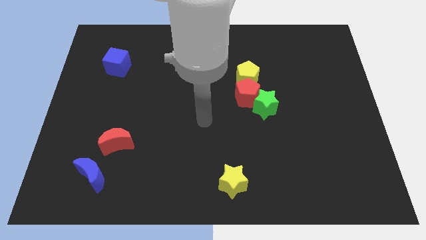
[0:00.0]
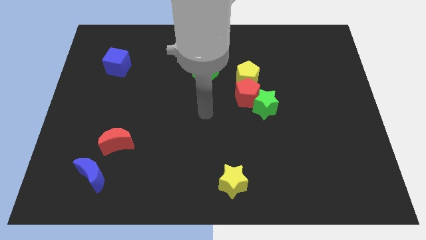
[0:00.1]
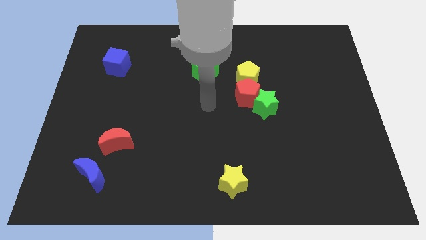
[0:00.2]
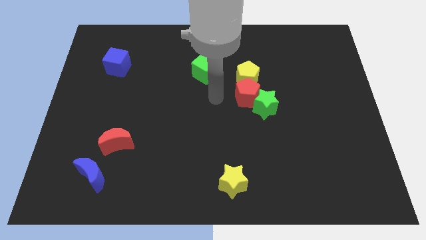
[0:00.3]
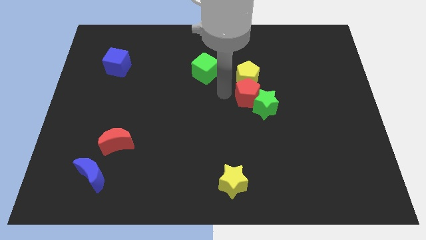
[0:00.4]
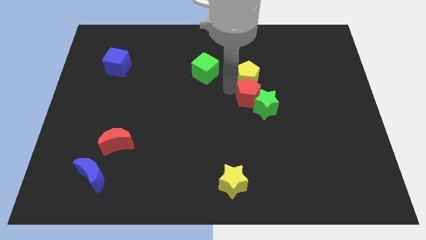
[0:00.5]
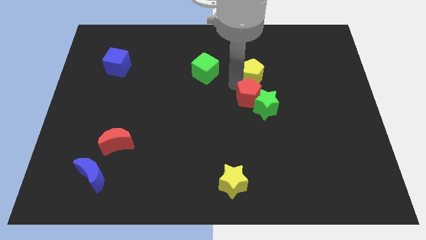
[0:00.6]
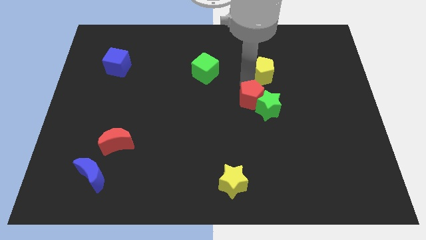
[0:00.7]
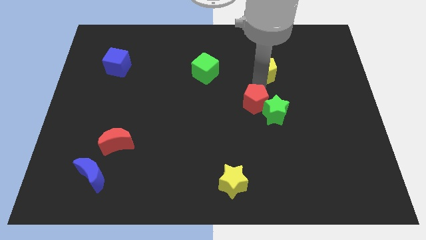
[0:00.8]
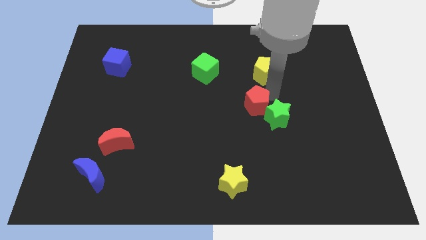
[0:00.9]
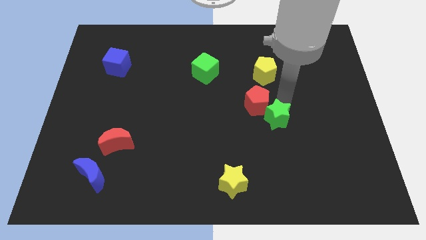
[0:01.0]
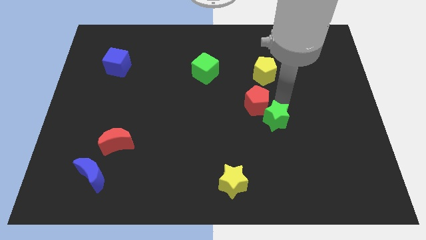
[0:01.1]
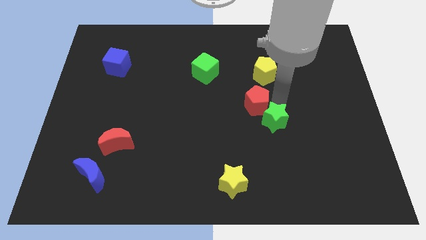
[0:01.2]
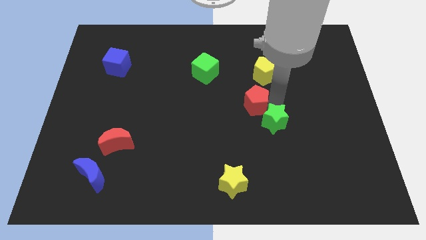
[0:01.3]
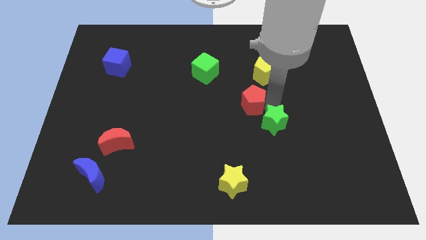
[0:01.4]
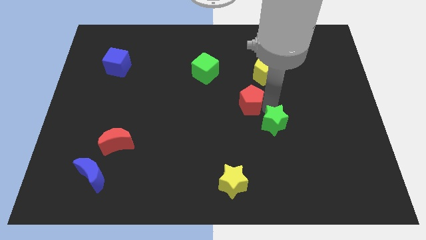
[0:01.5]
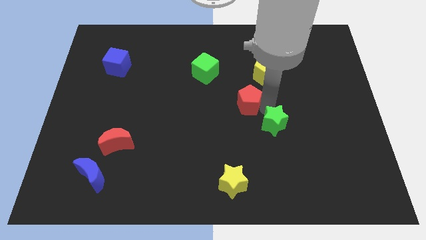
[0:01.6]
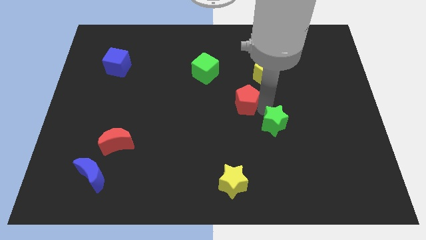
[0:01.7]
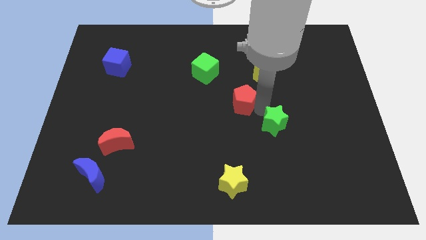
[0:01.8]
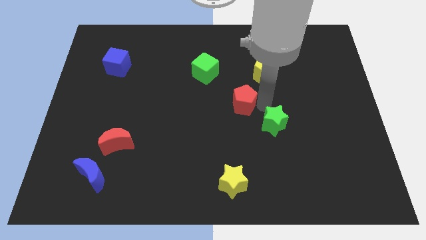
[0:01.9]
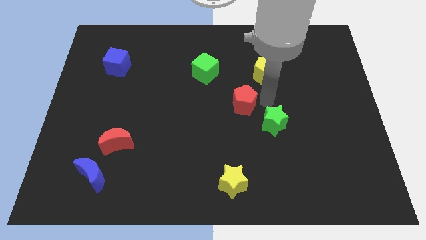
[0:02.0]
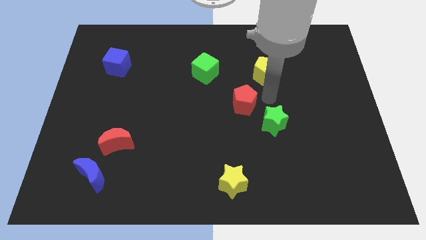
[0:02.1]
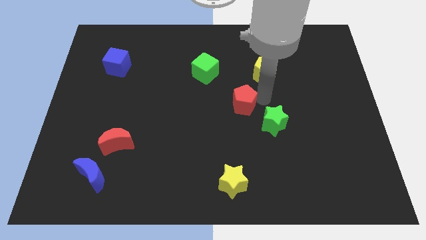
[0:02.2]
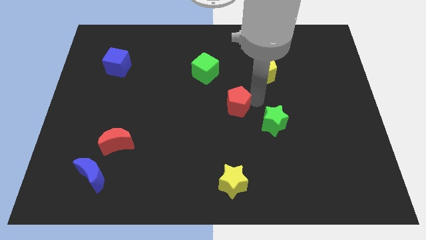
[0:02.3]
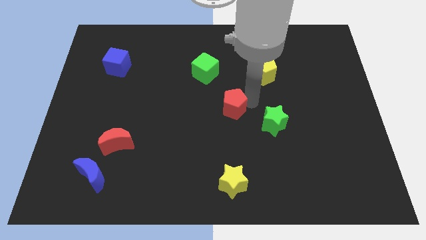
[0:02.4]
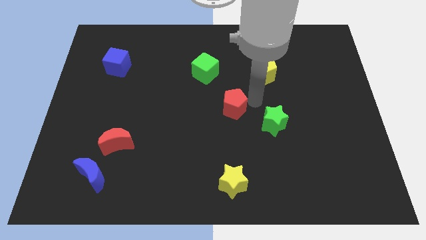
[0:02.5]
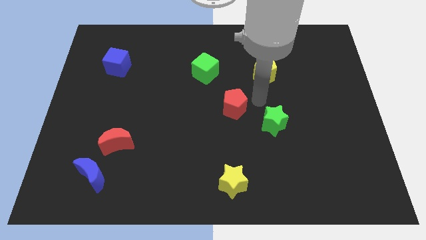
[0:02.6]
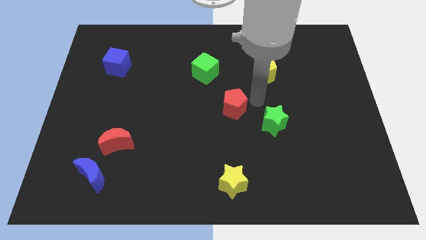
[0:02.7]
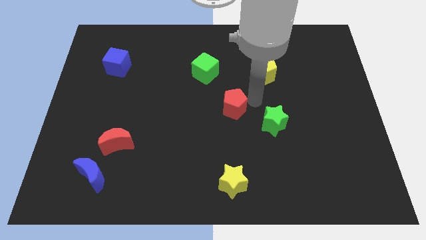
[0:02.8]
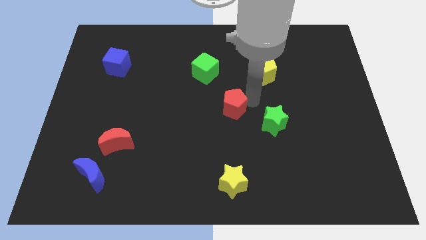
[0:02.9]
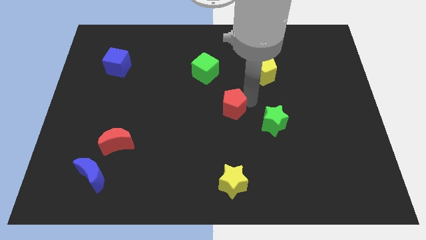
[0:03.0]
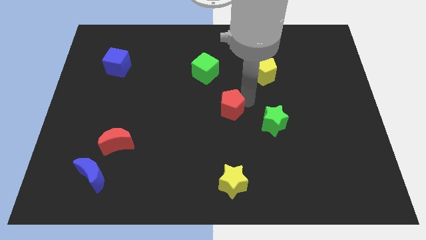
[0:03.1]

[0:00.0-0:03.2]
move the red pentagon away from the green star and yellow pentagon

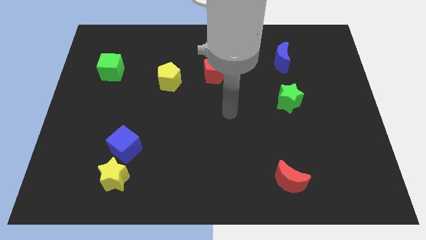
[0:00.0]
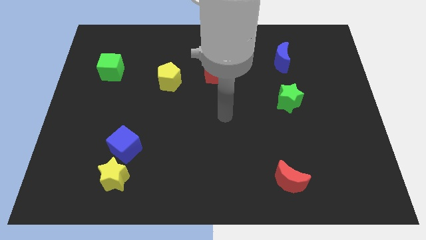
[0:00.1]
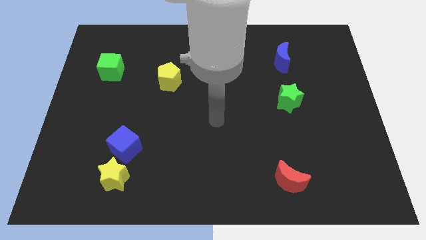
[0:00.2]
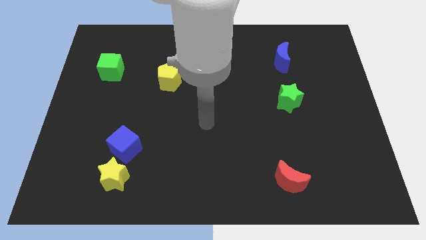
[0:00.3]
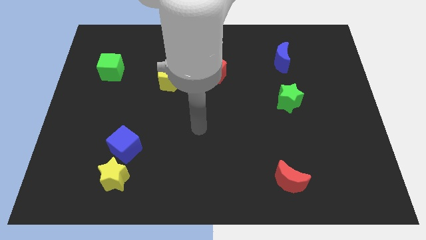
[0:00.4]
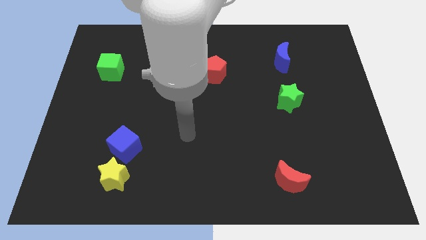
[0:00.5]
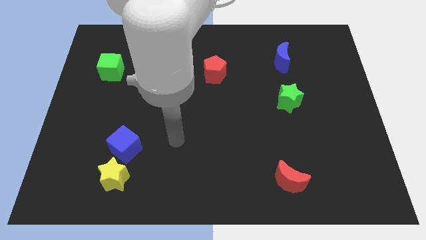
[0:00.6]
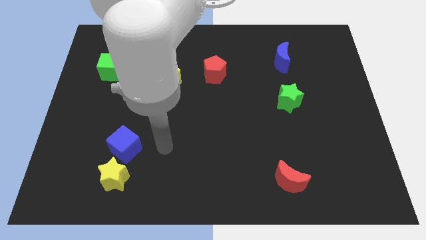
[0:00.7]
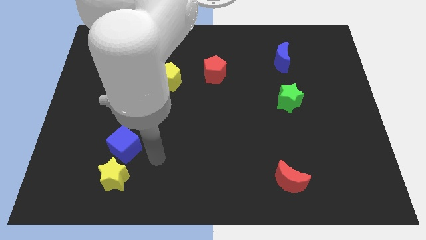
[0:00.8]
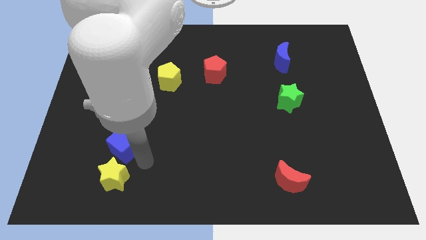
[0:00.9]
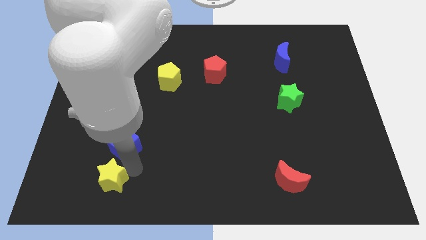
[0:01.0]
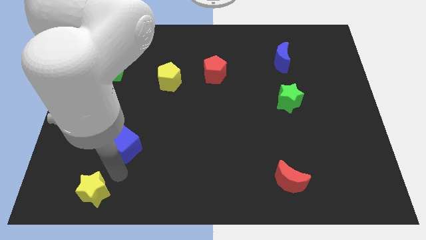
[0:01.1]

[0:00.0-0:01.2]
move the blue cube away from the yellow star

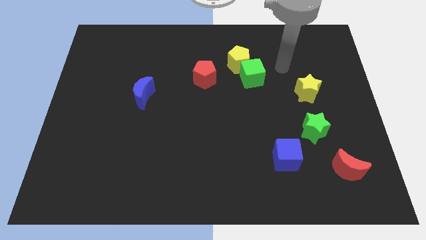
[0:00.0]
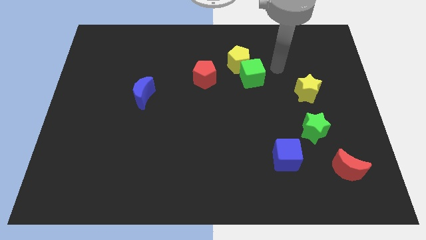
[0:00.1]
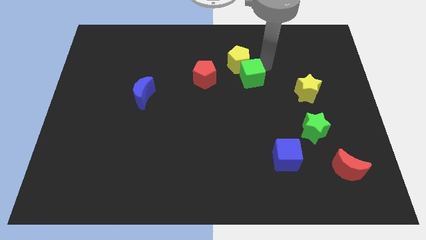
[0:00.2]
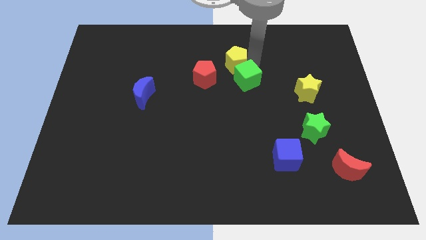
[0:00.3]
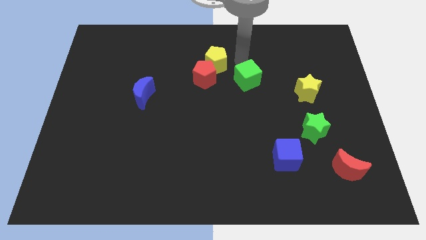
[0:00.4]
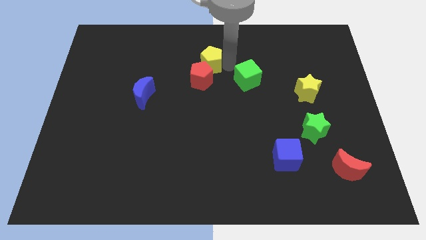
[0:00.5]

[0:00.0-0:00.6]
separate the green cube from the yellow pentagon

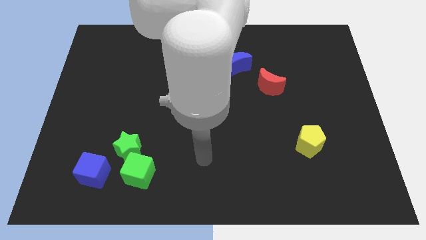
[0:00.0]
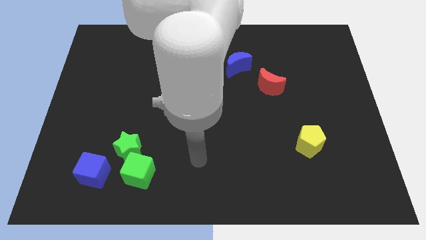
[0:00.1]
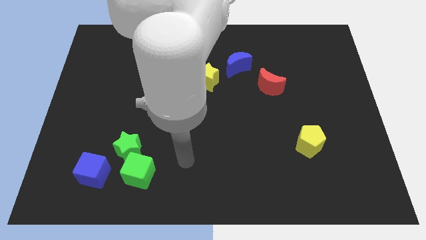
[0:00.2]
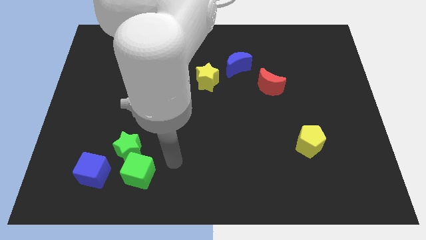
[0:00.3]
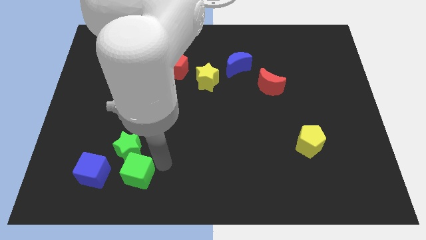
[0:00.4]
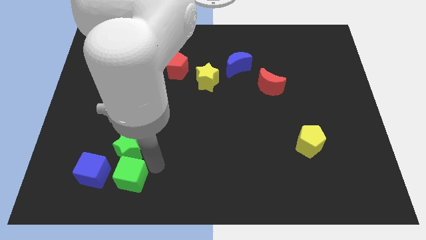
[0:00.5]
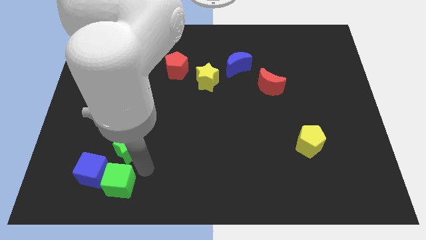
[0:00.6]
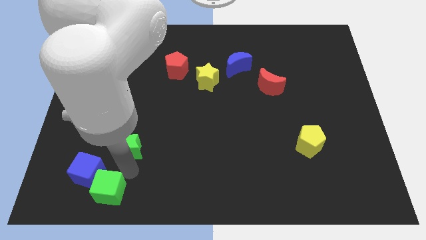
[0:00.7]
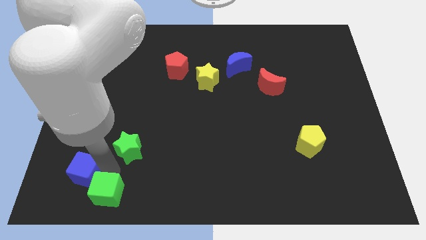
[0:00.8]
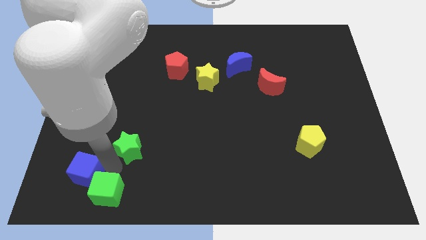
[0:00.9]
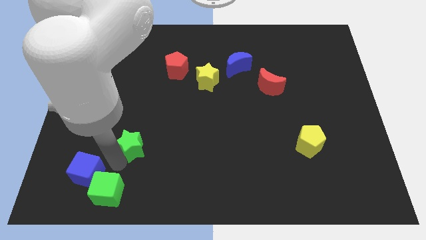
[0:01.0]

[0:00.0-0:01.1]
separate the green star from the green cube and blue cube

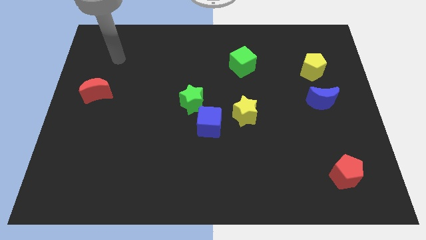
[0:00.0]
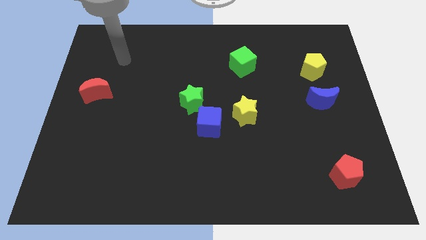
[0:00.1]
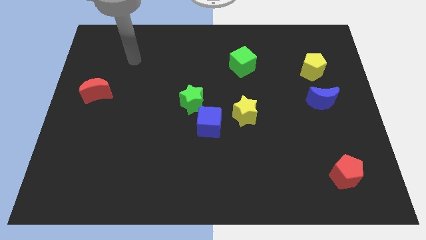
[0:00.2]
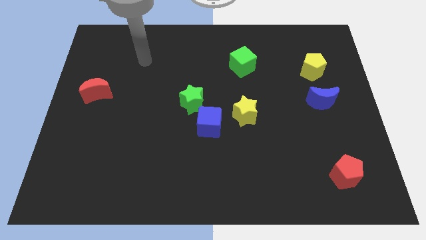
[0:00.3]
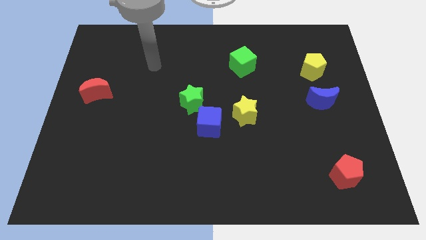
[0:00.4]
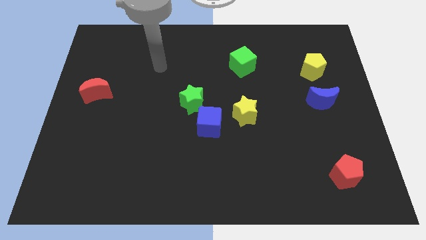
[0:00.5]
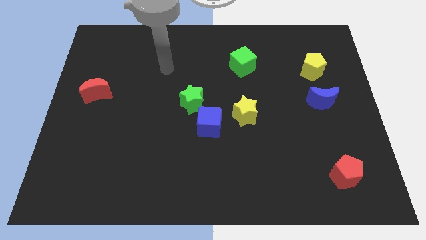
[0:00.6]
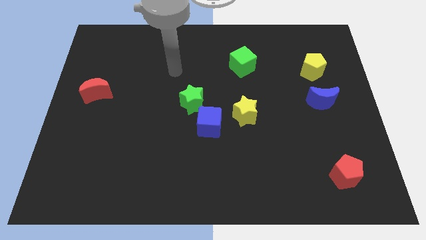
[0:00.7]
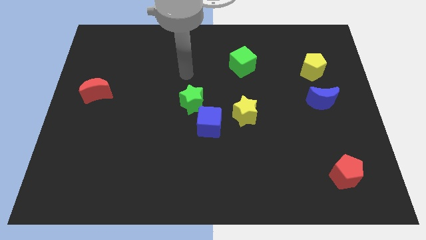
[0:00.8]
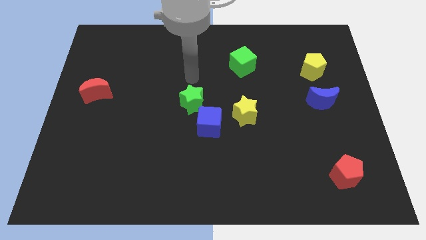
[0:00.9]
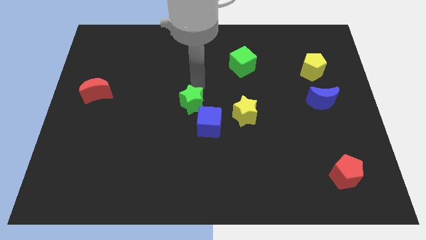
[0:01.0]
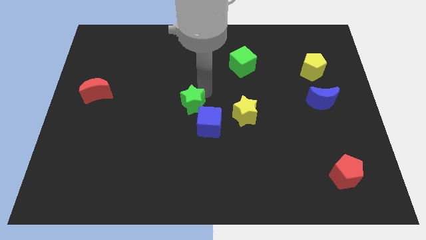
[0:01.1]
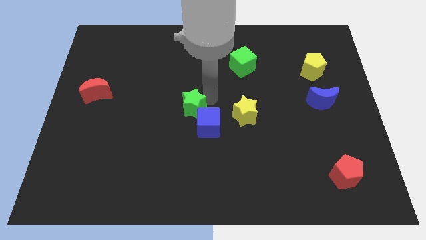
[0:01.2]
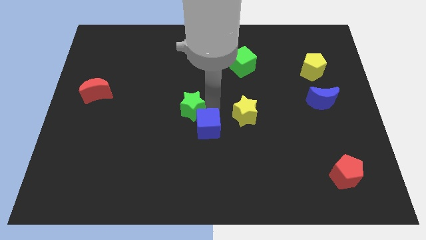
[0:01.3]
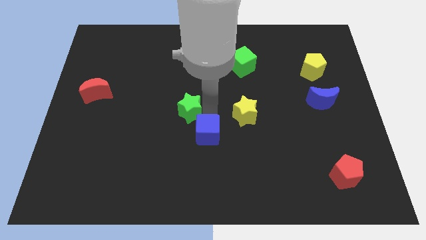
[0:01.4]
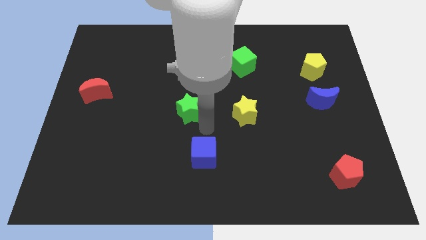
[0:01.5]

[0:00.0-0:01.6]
pull the green star apart from the blue cube

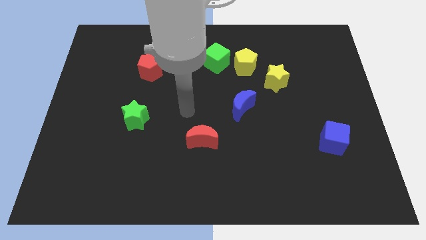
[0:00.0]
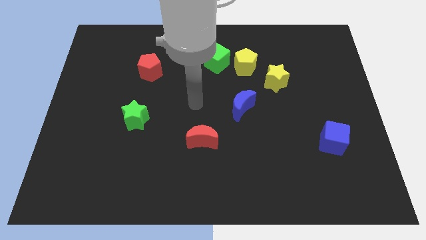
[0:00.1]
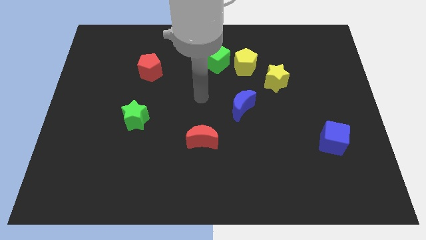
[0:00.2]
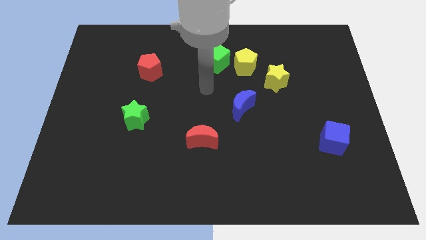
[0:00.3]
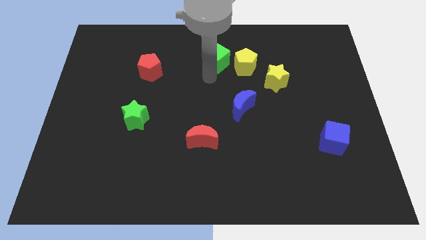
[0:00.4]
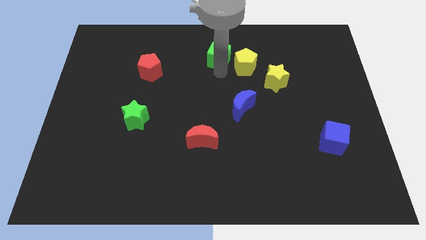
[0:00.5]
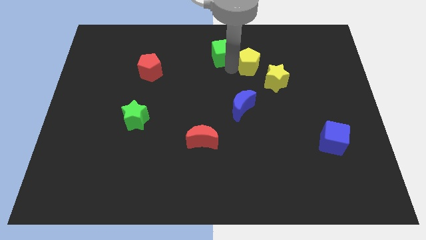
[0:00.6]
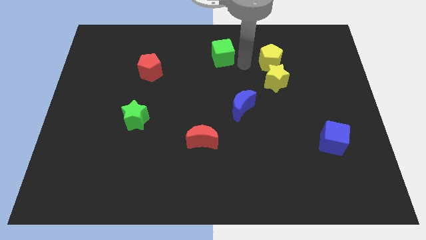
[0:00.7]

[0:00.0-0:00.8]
pull the green cube apart from the yellow pentagon

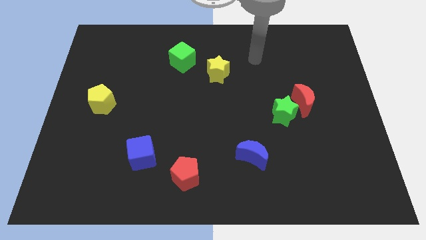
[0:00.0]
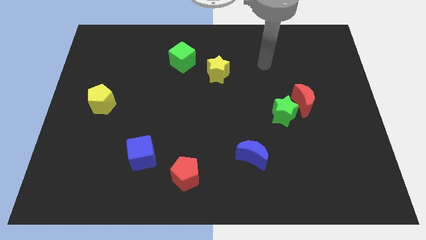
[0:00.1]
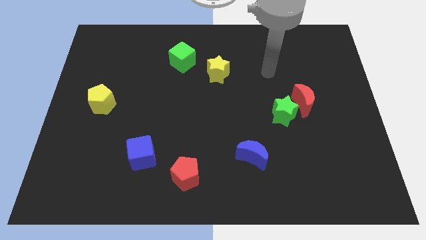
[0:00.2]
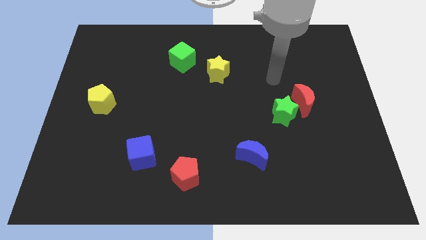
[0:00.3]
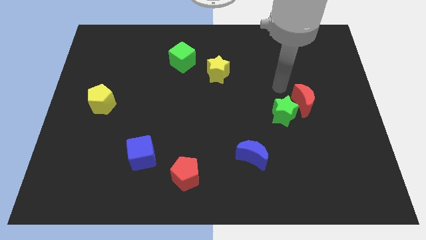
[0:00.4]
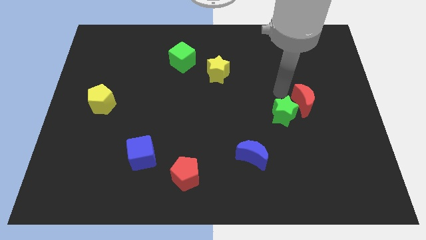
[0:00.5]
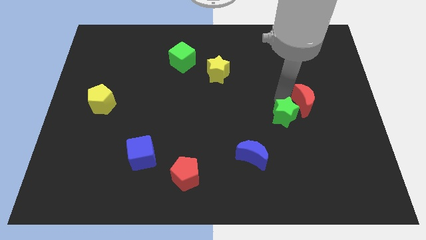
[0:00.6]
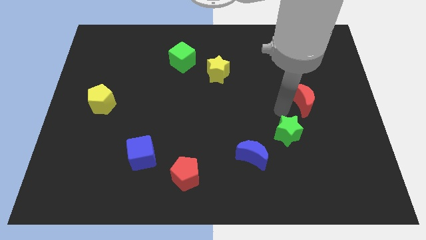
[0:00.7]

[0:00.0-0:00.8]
separate the red moon from the green star
